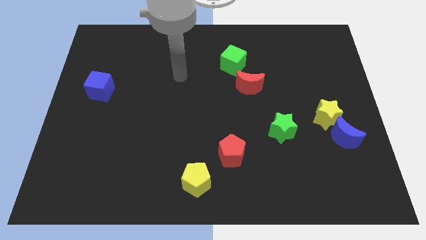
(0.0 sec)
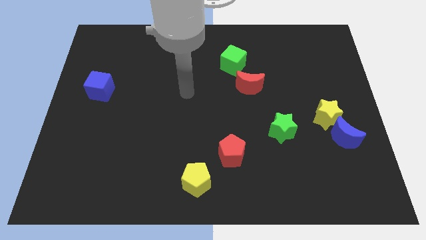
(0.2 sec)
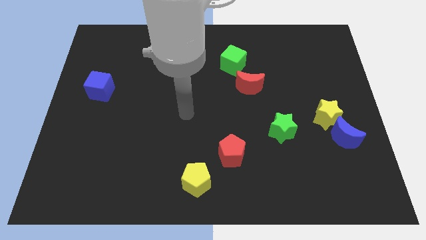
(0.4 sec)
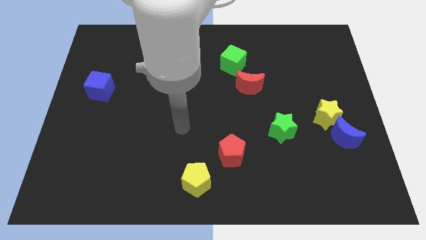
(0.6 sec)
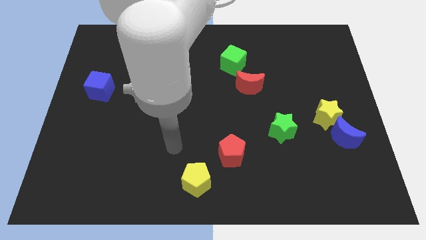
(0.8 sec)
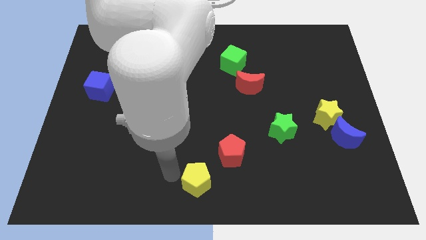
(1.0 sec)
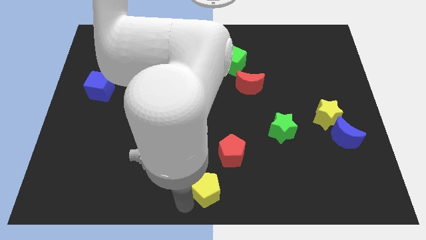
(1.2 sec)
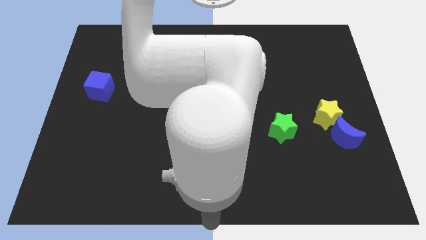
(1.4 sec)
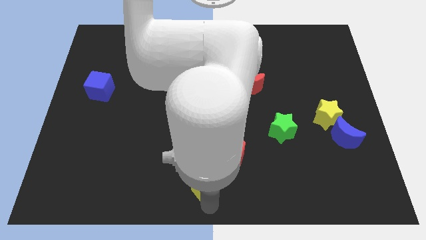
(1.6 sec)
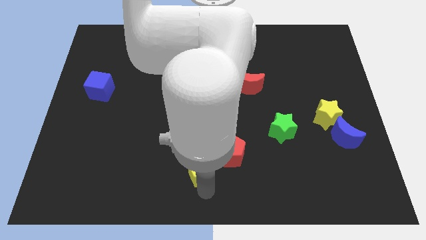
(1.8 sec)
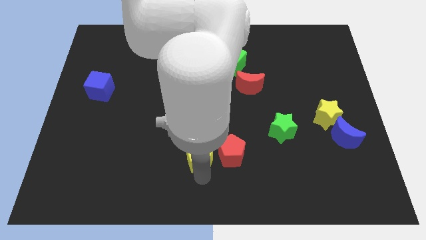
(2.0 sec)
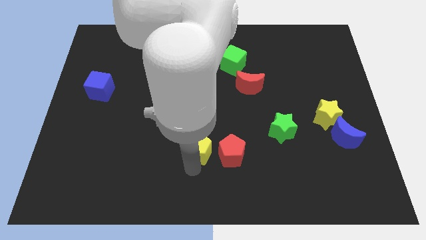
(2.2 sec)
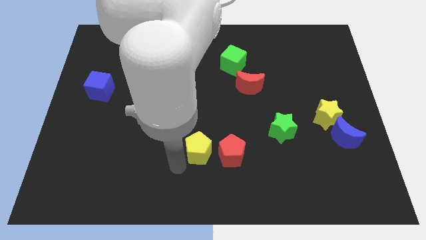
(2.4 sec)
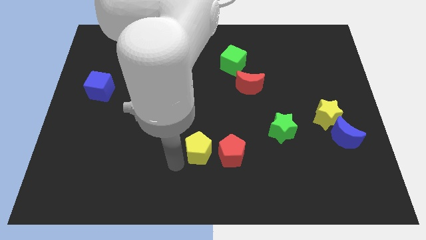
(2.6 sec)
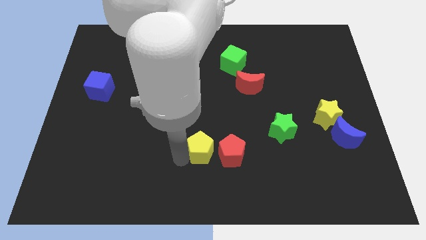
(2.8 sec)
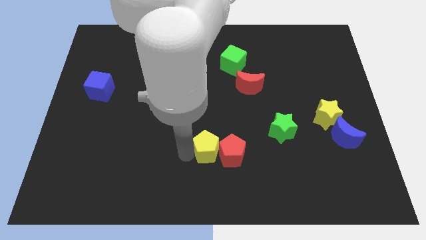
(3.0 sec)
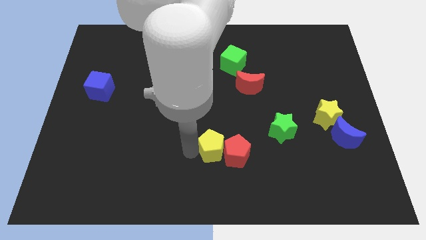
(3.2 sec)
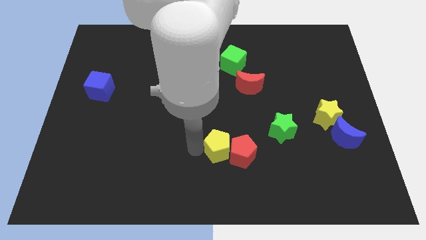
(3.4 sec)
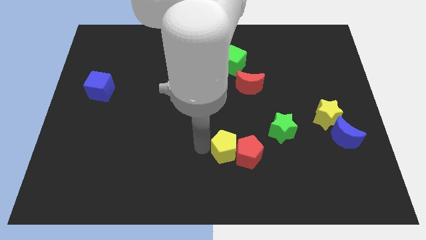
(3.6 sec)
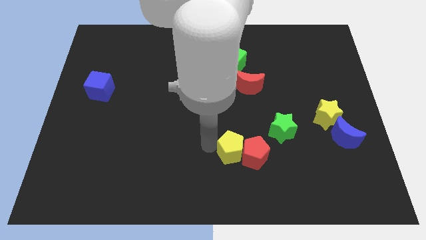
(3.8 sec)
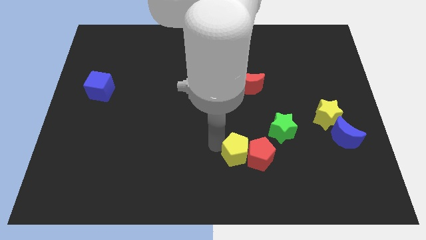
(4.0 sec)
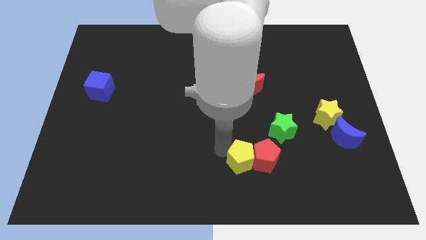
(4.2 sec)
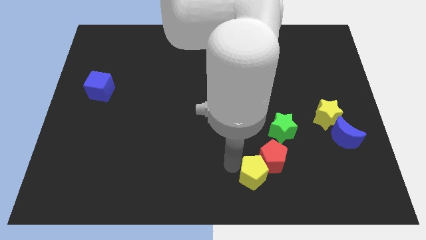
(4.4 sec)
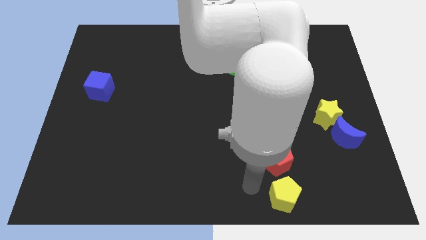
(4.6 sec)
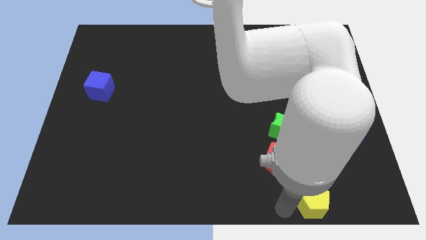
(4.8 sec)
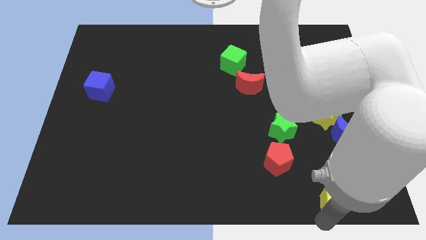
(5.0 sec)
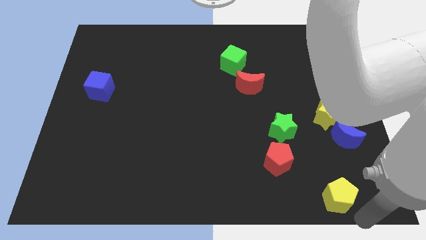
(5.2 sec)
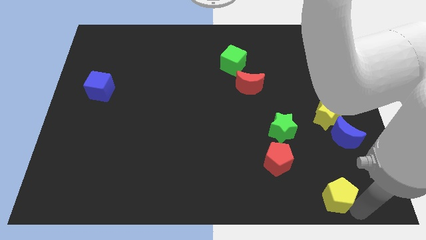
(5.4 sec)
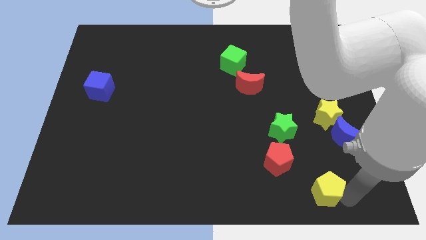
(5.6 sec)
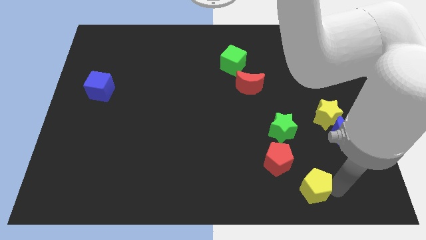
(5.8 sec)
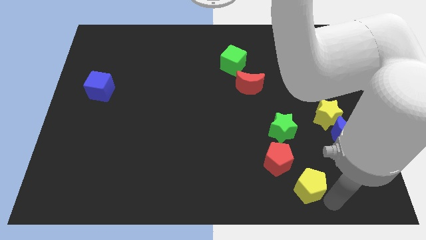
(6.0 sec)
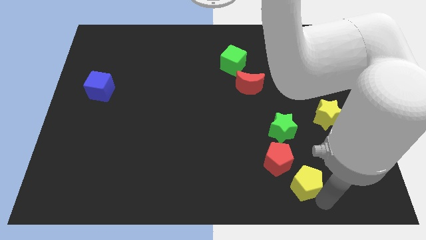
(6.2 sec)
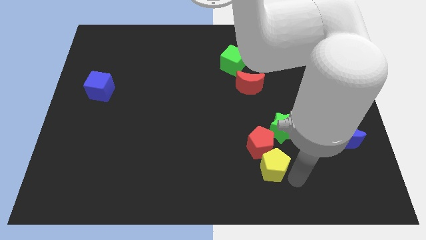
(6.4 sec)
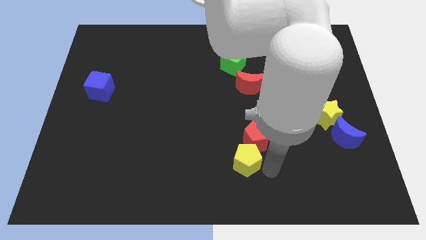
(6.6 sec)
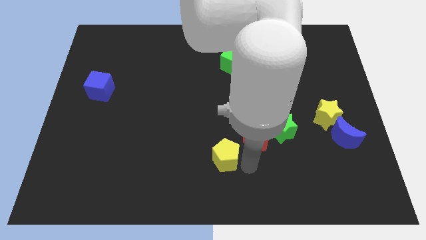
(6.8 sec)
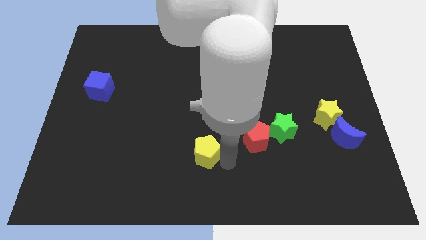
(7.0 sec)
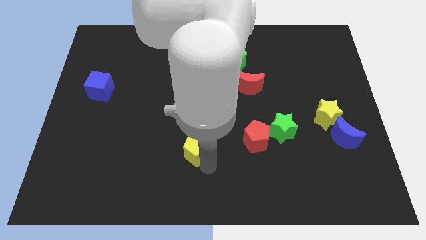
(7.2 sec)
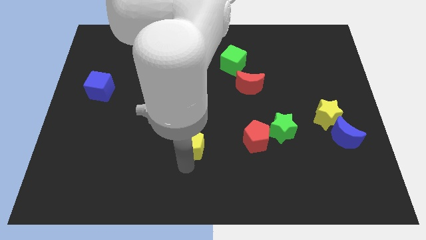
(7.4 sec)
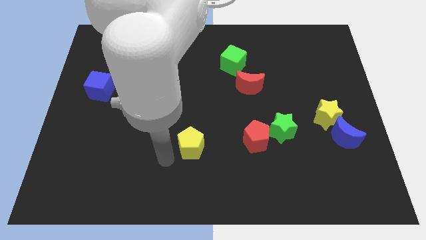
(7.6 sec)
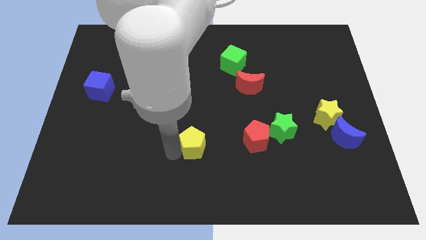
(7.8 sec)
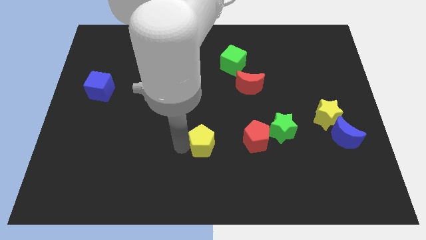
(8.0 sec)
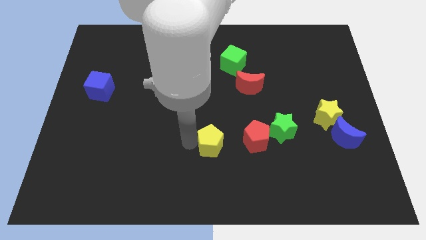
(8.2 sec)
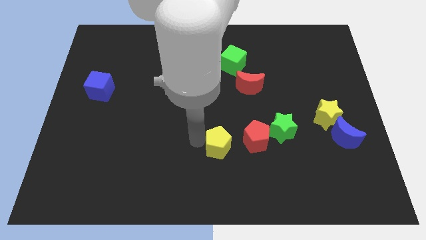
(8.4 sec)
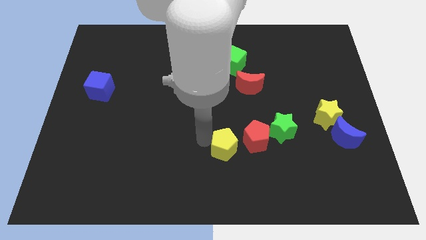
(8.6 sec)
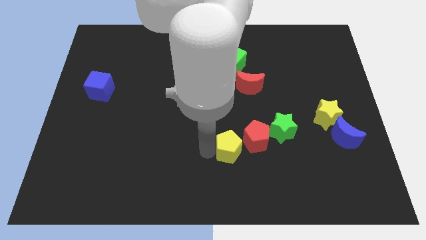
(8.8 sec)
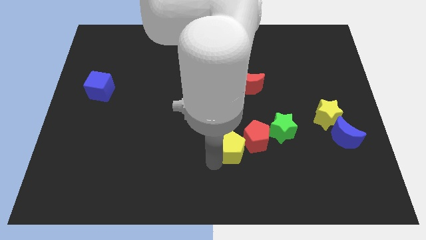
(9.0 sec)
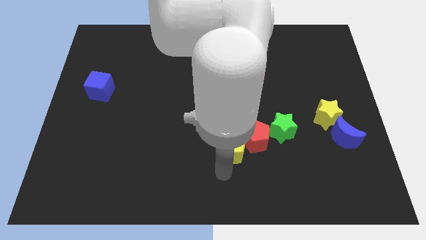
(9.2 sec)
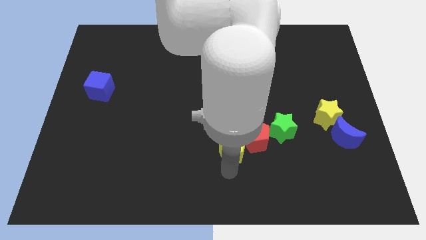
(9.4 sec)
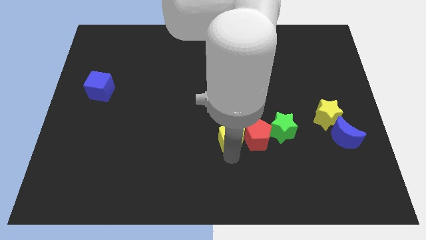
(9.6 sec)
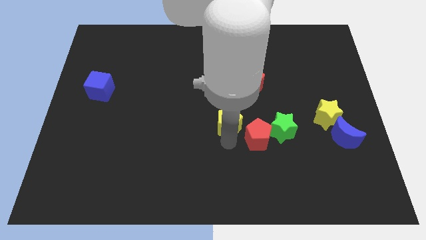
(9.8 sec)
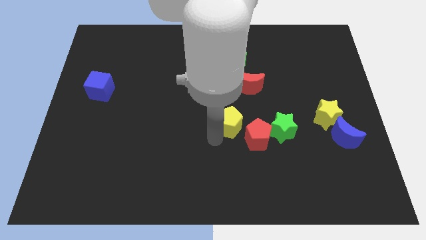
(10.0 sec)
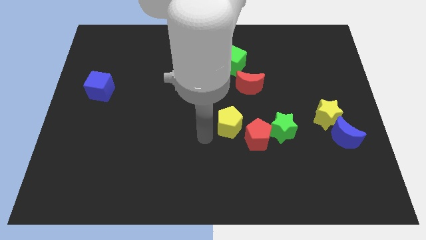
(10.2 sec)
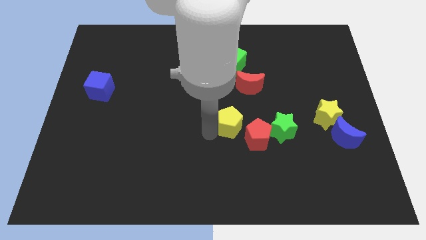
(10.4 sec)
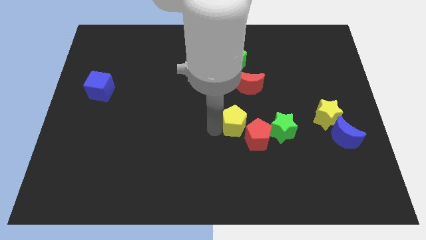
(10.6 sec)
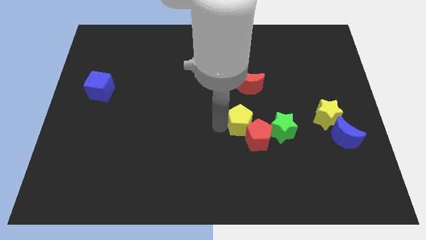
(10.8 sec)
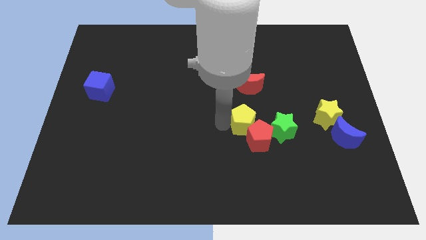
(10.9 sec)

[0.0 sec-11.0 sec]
move the yellow pentagon to the top left side of the green star

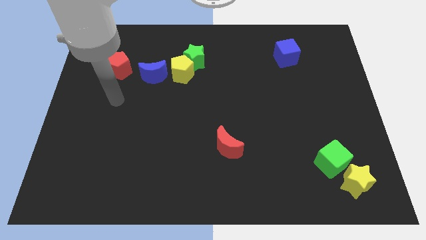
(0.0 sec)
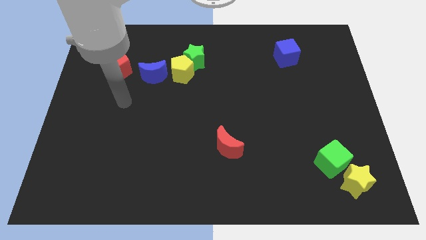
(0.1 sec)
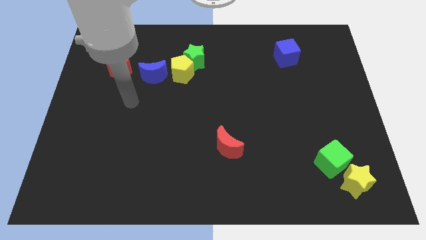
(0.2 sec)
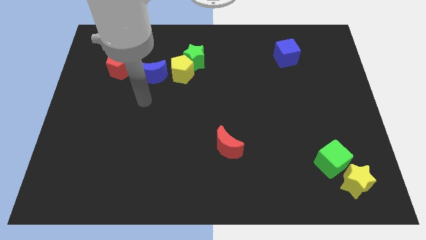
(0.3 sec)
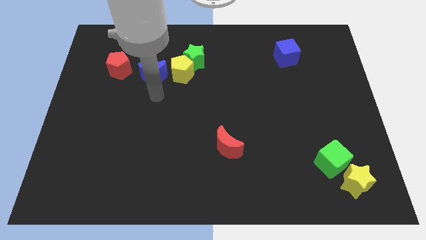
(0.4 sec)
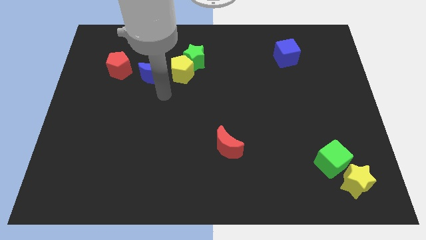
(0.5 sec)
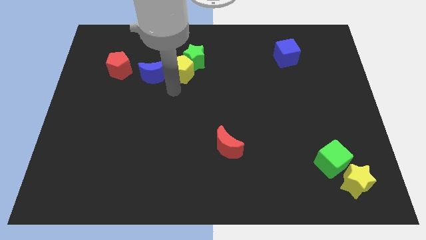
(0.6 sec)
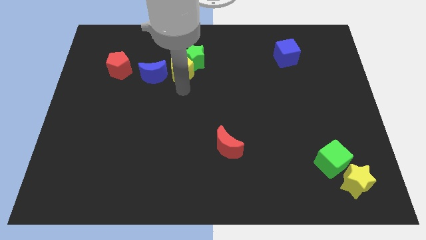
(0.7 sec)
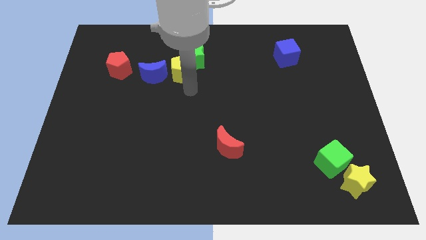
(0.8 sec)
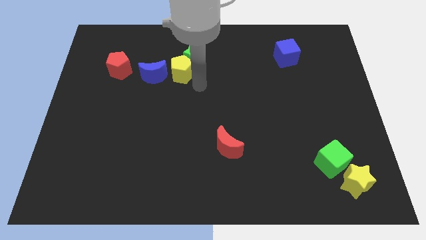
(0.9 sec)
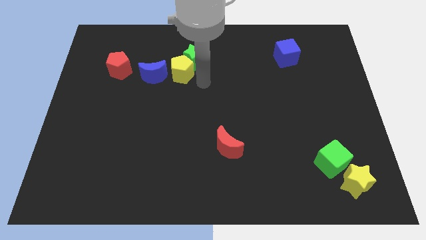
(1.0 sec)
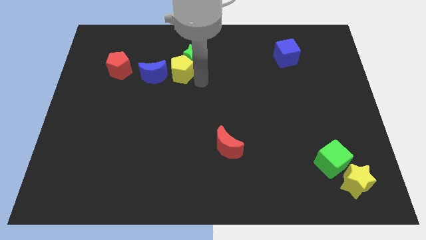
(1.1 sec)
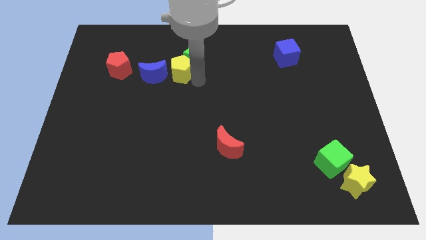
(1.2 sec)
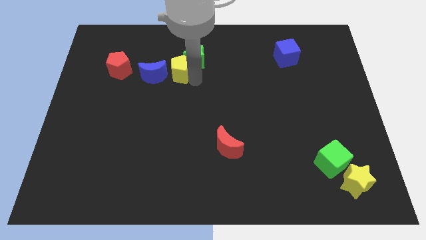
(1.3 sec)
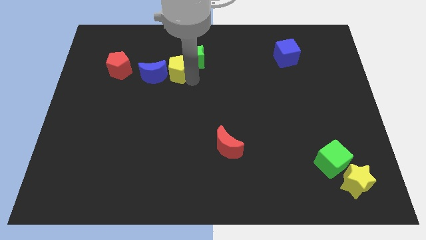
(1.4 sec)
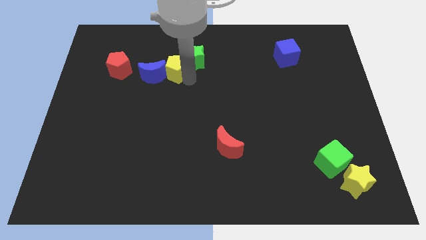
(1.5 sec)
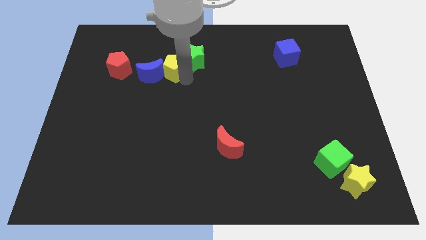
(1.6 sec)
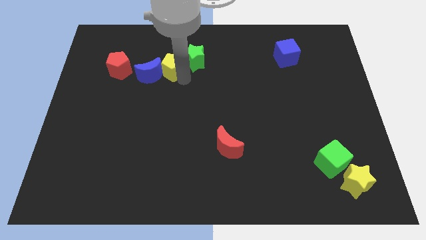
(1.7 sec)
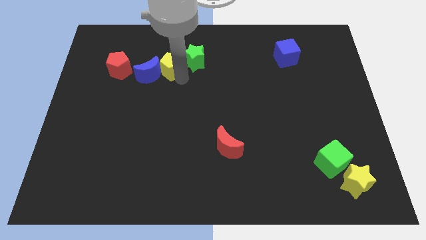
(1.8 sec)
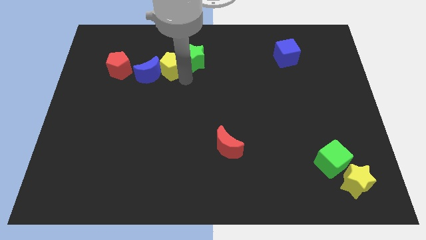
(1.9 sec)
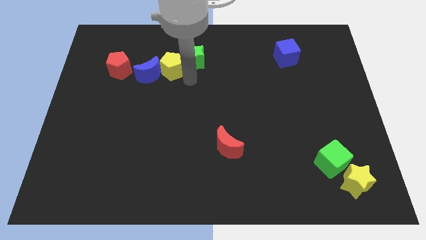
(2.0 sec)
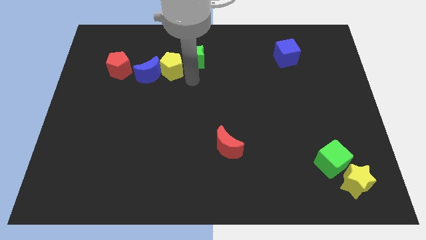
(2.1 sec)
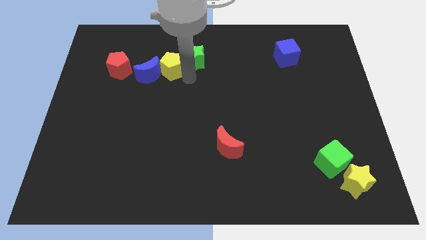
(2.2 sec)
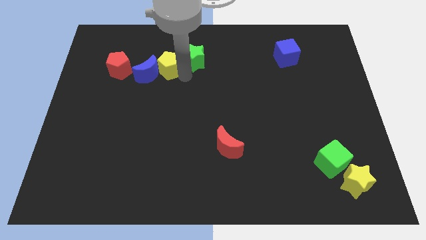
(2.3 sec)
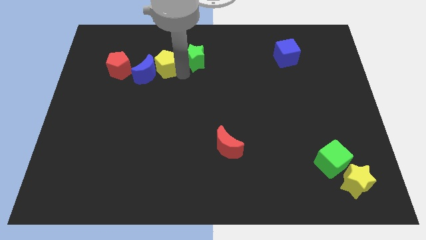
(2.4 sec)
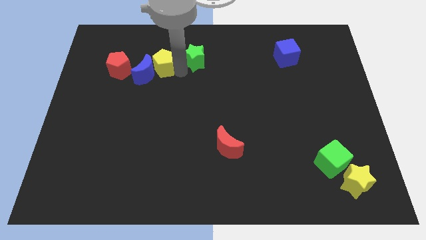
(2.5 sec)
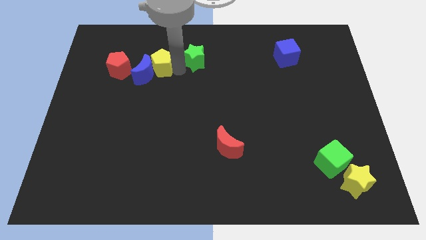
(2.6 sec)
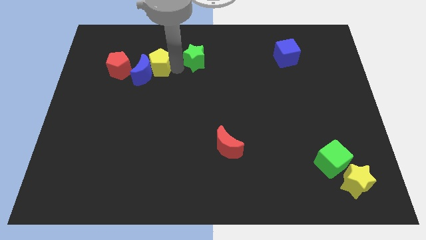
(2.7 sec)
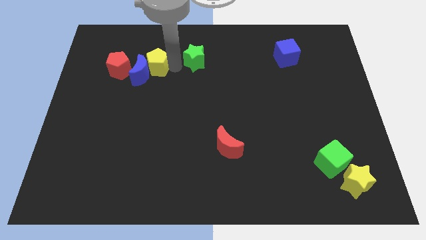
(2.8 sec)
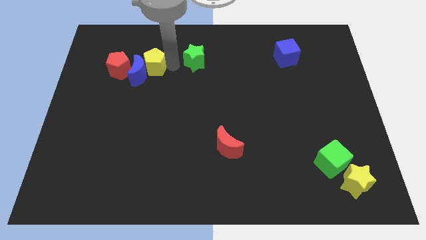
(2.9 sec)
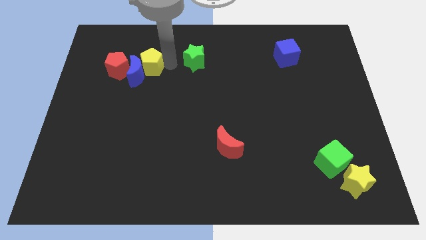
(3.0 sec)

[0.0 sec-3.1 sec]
move the yellow pentagon to the top right side of the red pentagon
